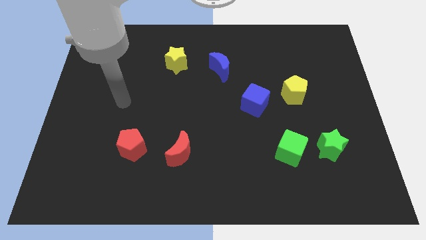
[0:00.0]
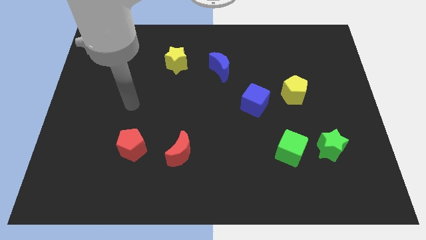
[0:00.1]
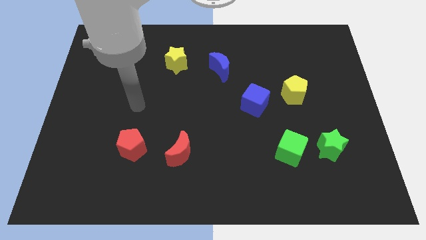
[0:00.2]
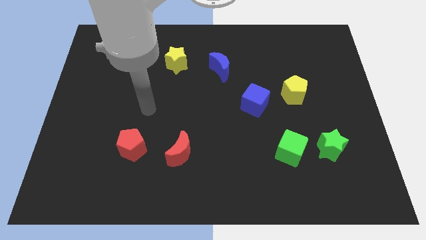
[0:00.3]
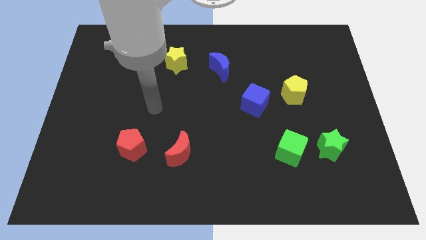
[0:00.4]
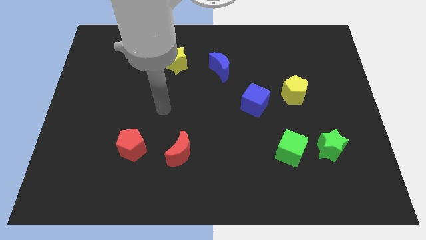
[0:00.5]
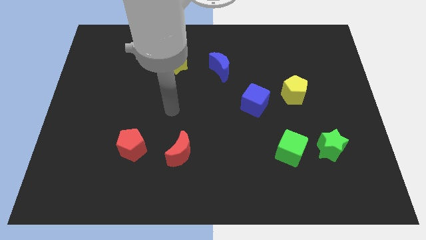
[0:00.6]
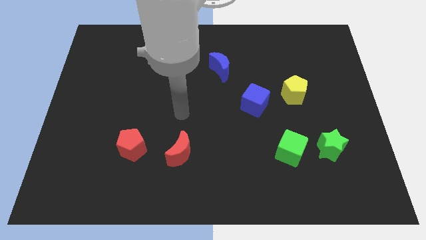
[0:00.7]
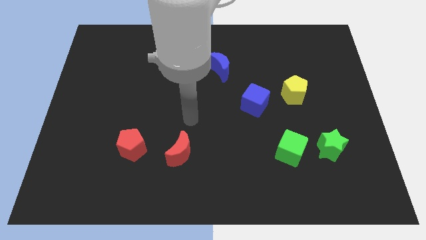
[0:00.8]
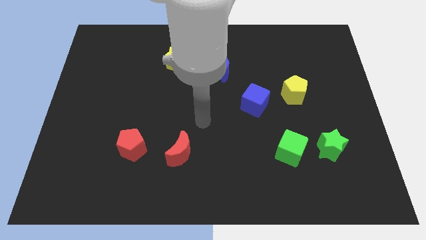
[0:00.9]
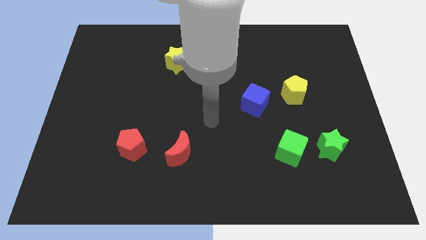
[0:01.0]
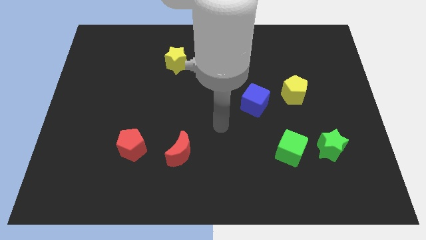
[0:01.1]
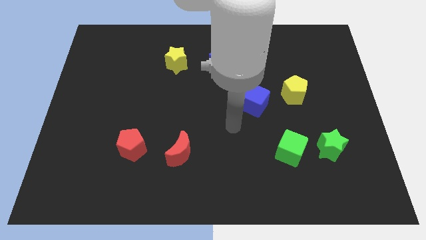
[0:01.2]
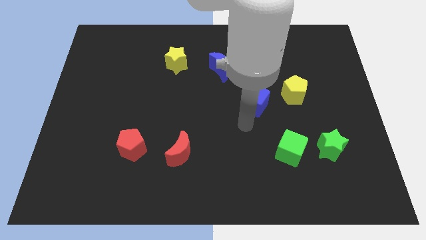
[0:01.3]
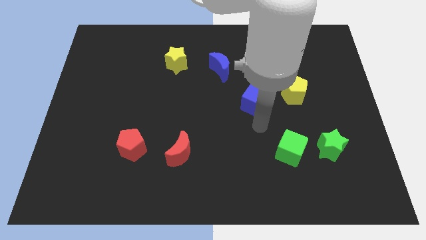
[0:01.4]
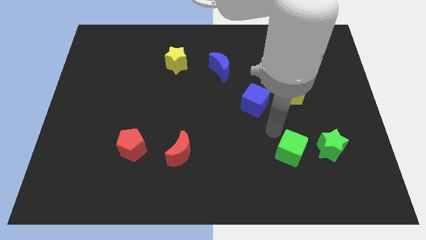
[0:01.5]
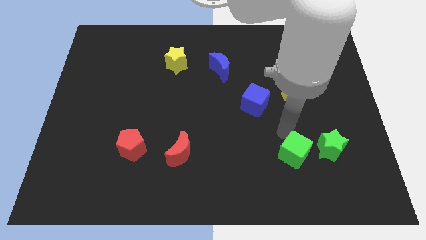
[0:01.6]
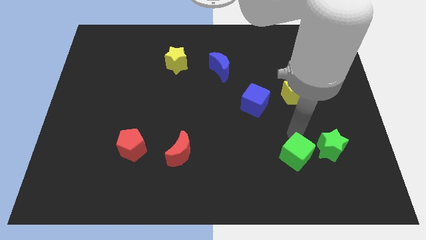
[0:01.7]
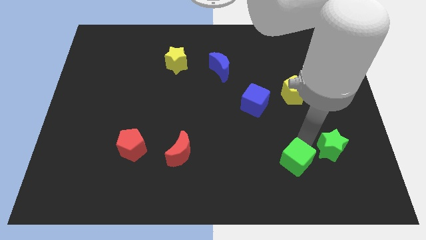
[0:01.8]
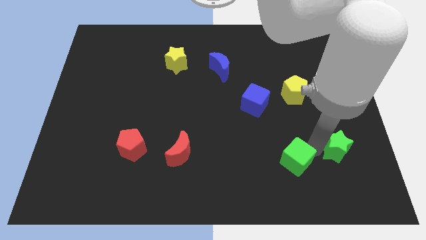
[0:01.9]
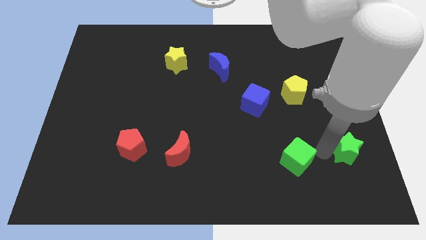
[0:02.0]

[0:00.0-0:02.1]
move the green cube away from the green star

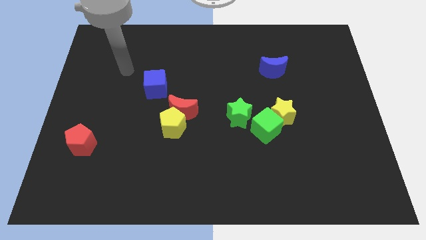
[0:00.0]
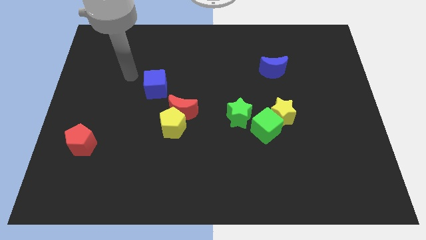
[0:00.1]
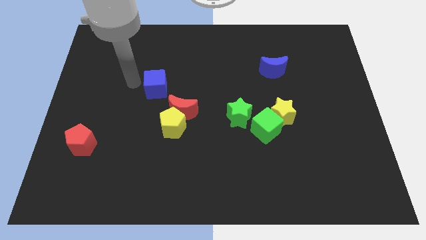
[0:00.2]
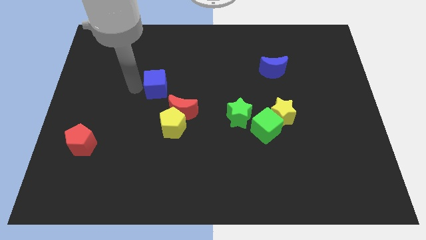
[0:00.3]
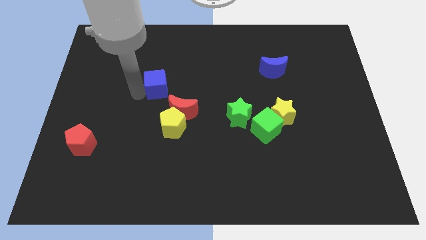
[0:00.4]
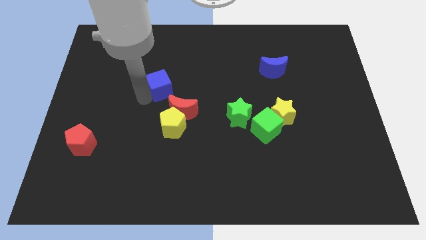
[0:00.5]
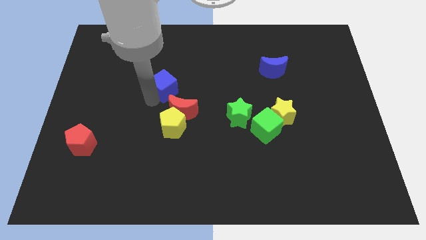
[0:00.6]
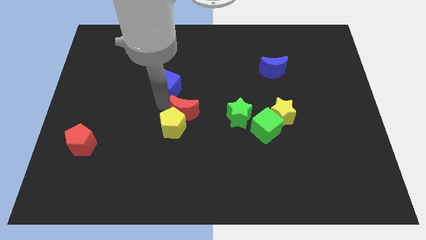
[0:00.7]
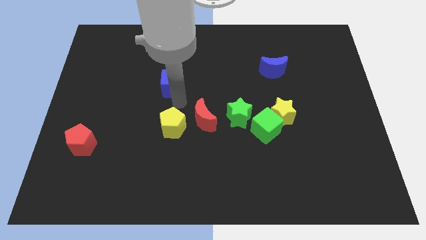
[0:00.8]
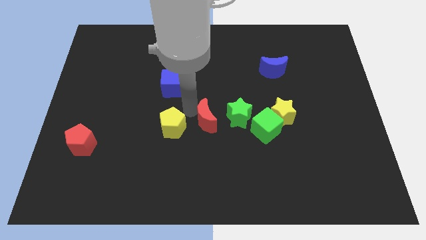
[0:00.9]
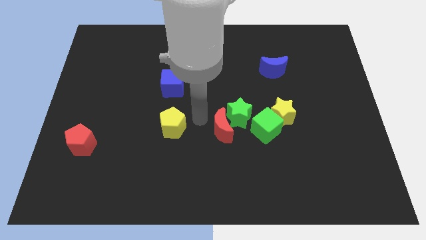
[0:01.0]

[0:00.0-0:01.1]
separate the yellow pentagon from the red moon

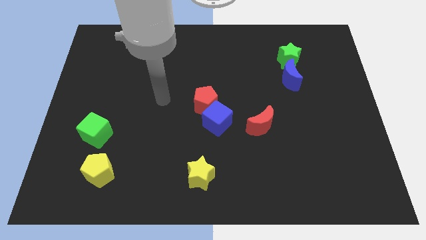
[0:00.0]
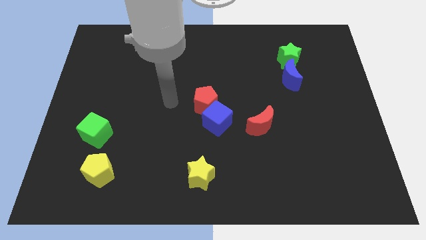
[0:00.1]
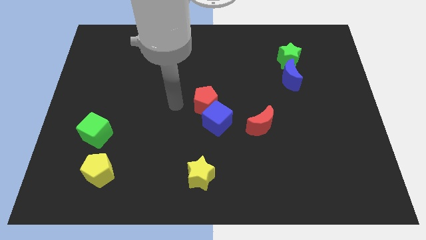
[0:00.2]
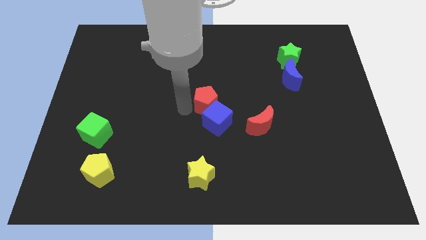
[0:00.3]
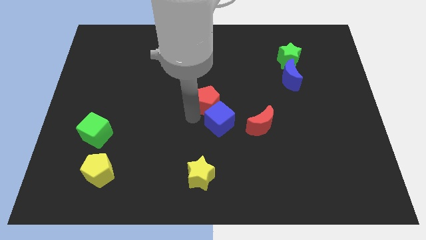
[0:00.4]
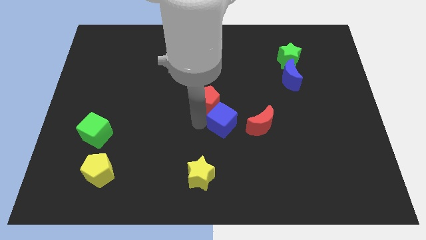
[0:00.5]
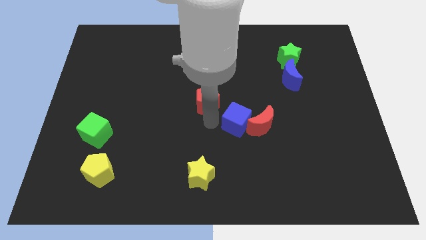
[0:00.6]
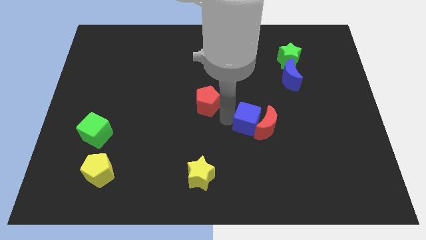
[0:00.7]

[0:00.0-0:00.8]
pull the red pentagon apart from the blue cube

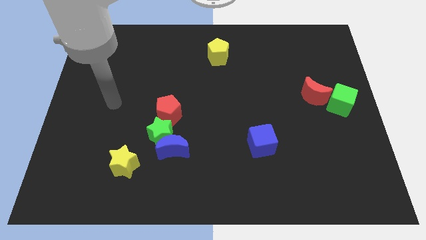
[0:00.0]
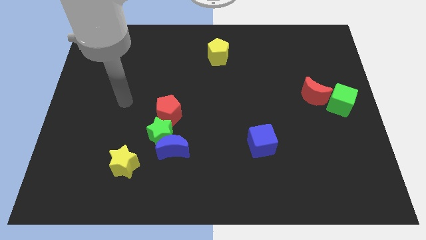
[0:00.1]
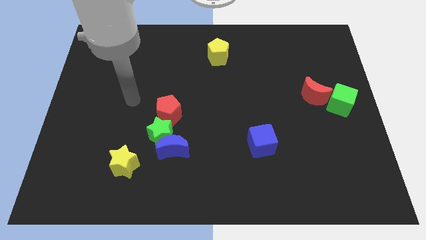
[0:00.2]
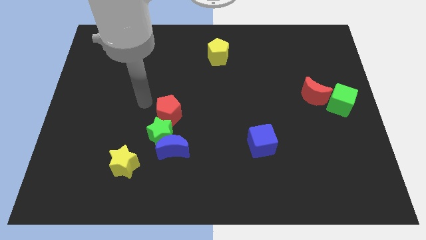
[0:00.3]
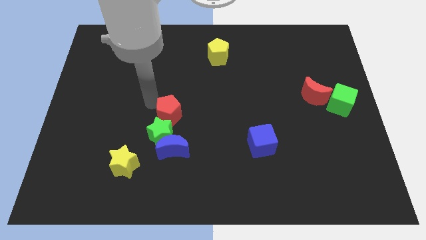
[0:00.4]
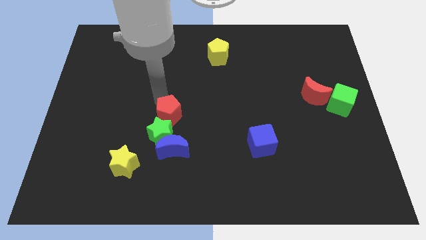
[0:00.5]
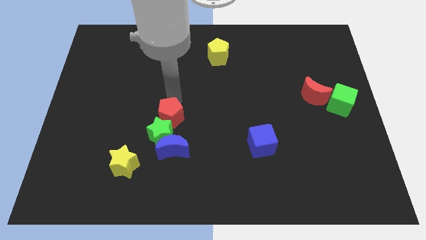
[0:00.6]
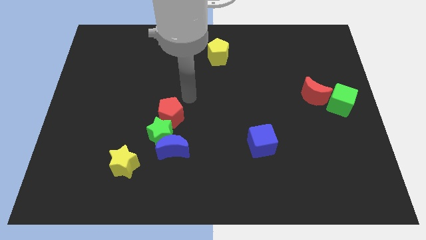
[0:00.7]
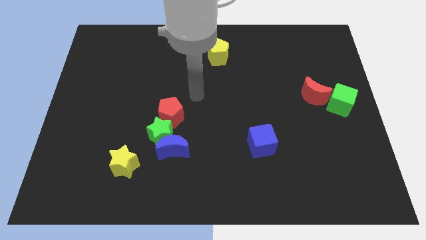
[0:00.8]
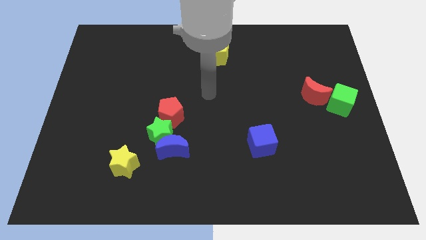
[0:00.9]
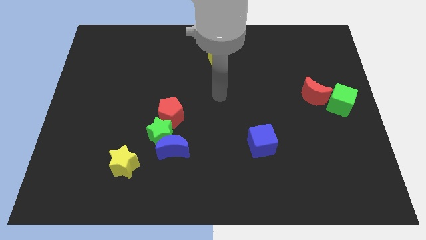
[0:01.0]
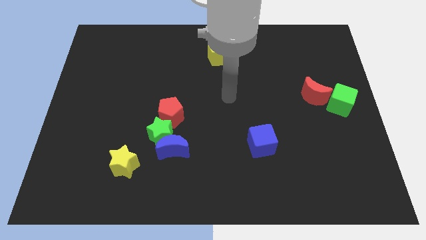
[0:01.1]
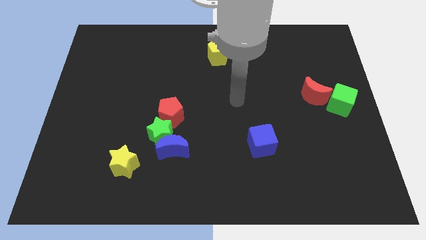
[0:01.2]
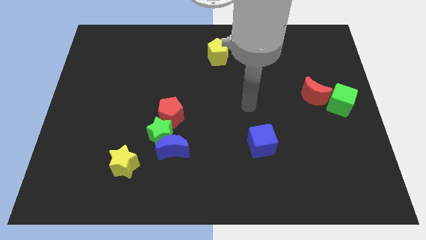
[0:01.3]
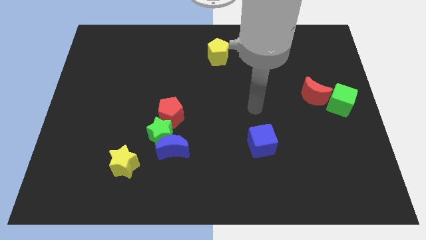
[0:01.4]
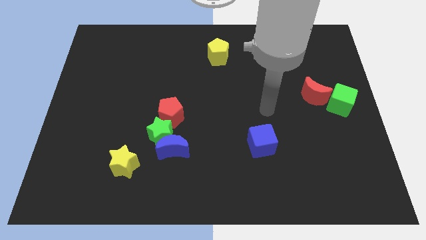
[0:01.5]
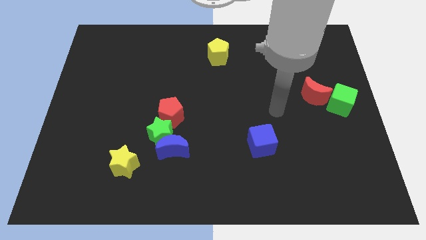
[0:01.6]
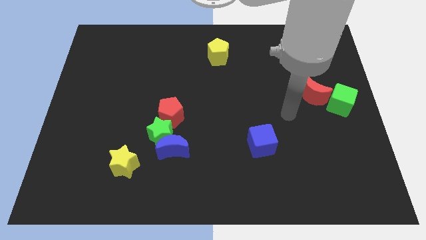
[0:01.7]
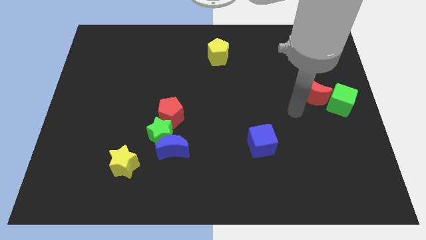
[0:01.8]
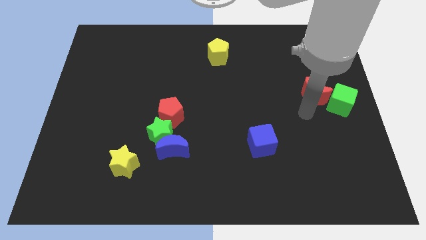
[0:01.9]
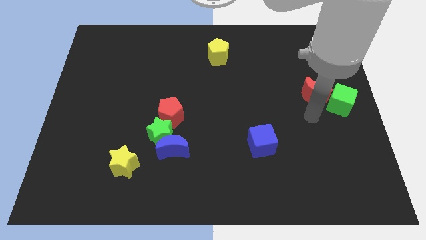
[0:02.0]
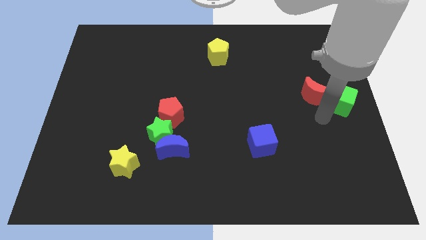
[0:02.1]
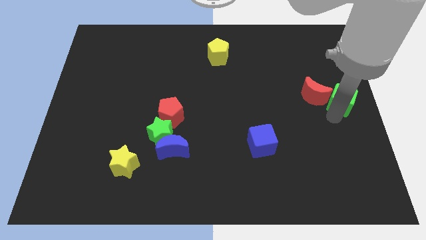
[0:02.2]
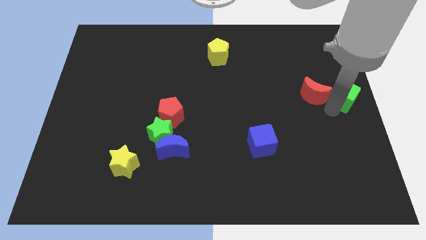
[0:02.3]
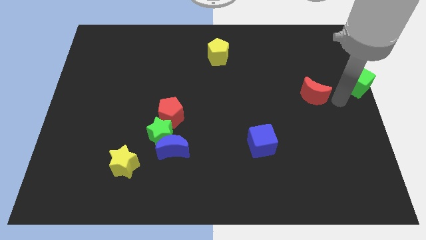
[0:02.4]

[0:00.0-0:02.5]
pull the red moon apart from the green cube

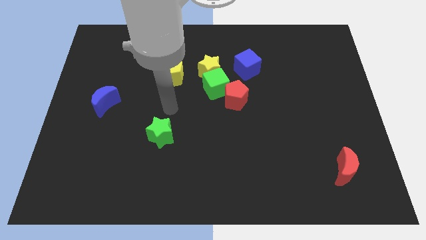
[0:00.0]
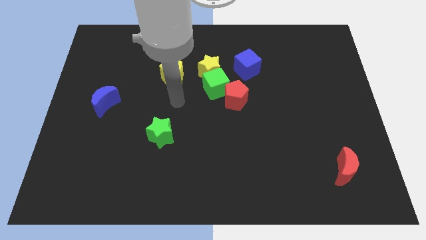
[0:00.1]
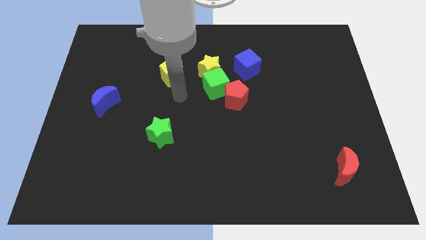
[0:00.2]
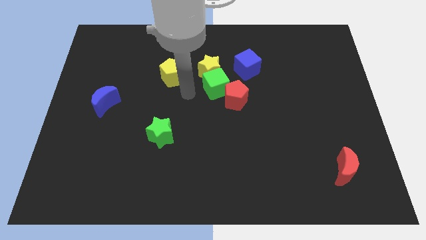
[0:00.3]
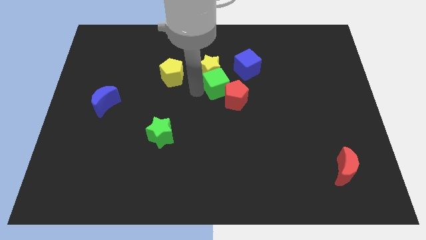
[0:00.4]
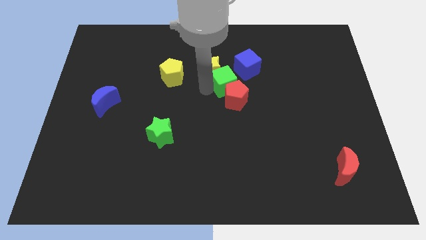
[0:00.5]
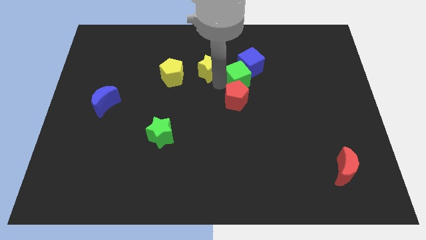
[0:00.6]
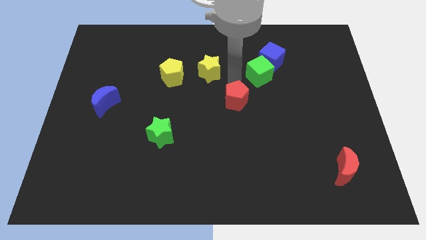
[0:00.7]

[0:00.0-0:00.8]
separate the red pentagon from the green cube

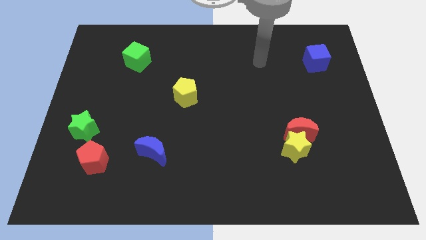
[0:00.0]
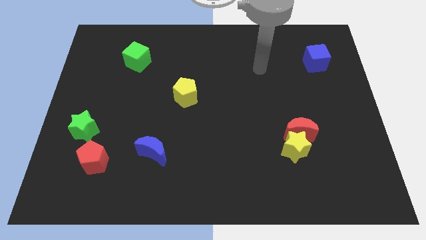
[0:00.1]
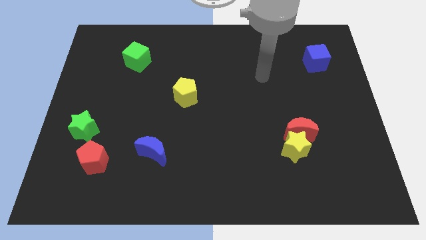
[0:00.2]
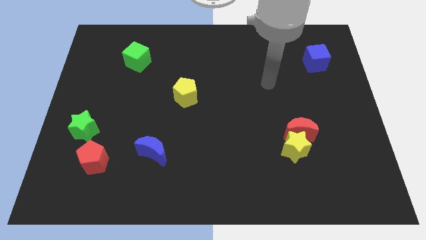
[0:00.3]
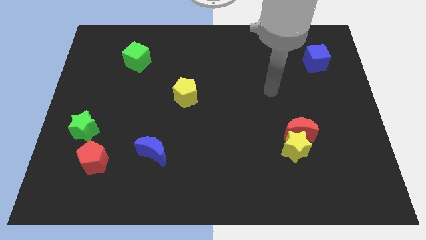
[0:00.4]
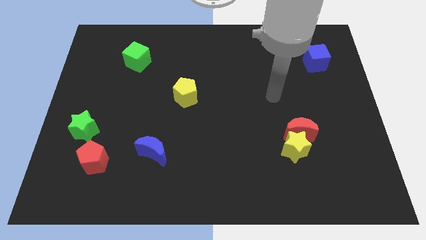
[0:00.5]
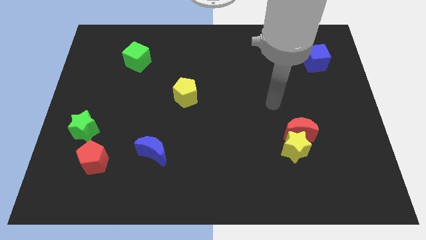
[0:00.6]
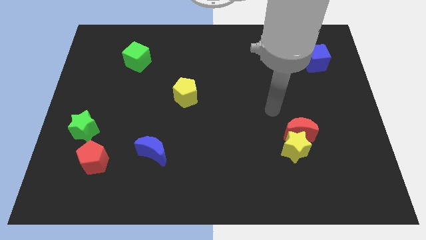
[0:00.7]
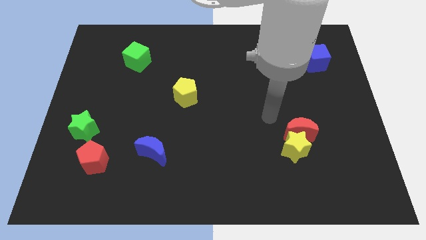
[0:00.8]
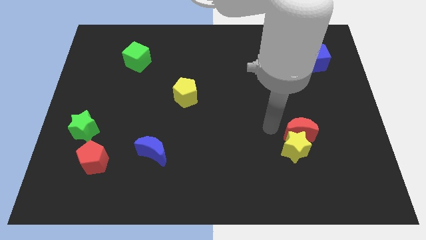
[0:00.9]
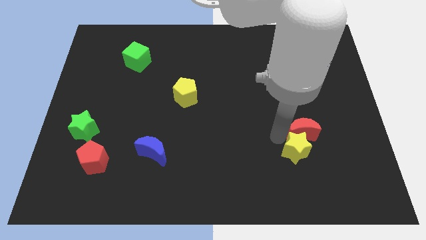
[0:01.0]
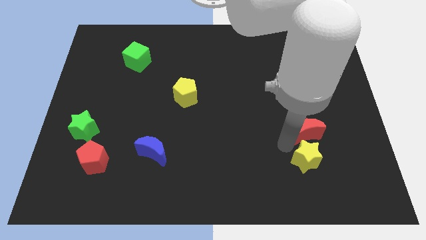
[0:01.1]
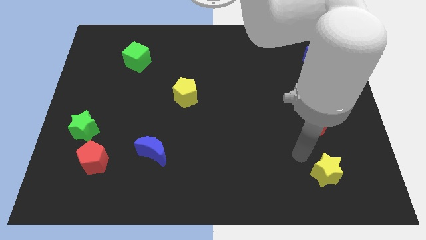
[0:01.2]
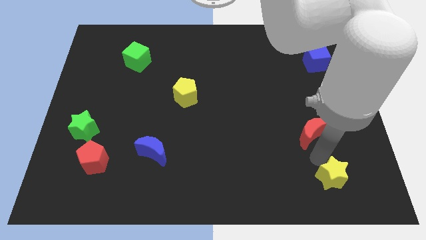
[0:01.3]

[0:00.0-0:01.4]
separate the red moon from the yellow star

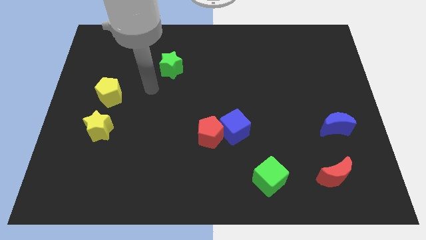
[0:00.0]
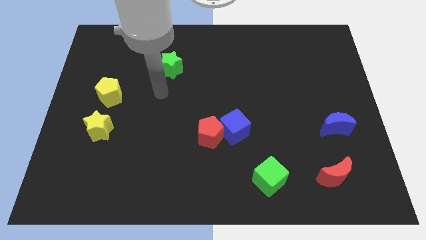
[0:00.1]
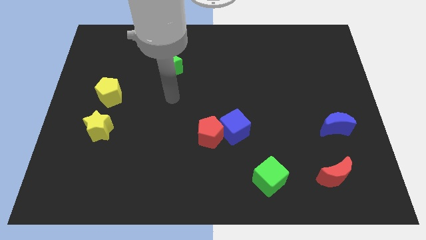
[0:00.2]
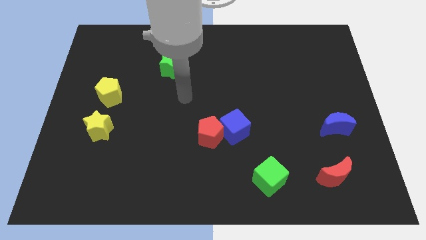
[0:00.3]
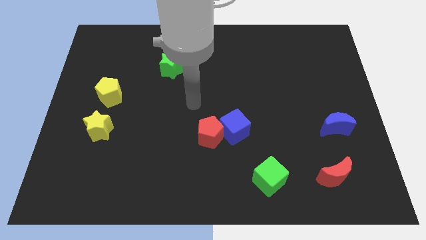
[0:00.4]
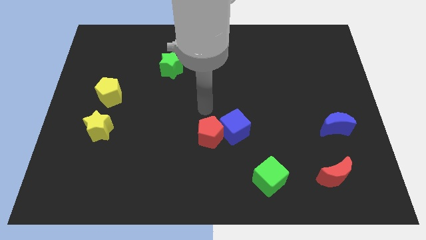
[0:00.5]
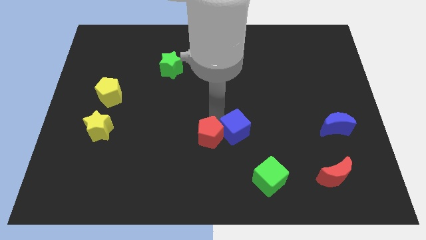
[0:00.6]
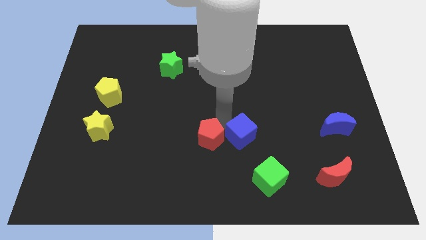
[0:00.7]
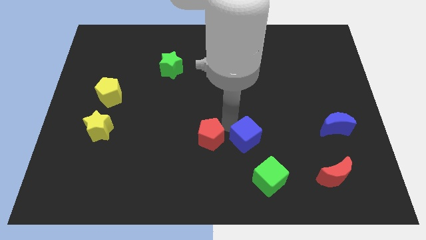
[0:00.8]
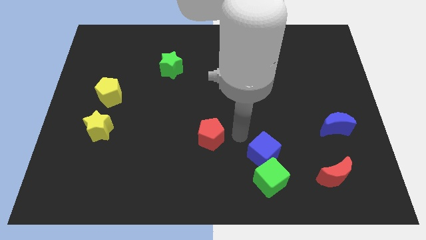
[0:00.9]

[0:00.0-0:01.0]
separate the red pentagon from the blue cube
